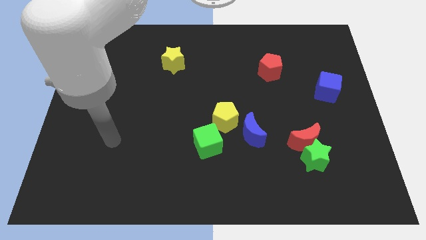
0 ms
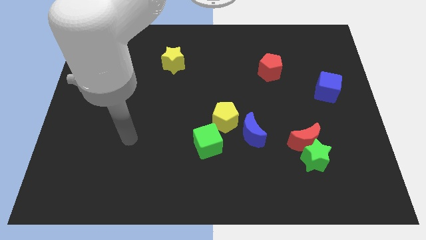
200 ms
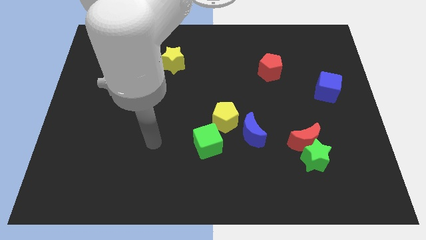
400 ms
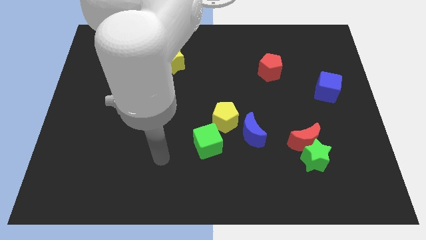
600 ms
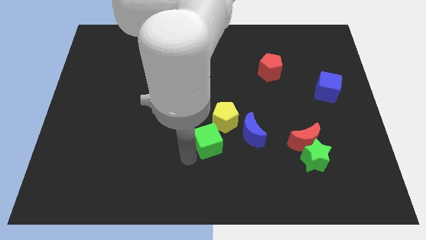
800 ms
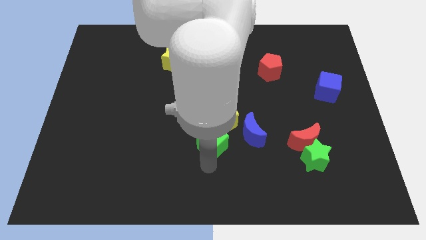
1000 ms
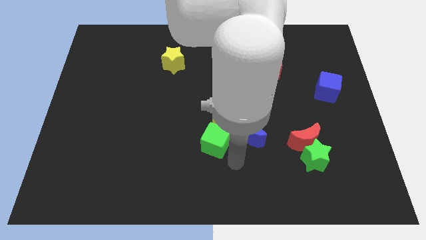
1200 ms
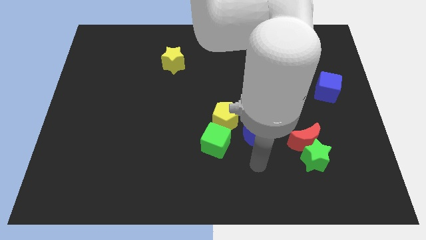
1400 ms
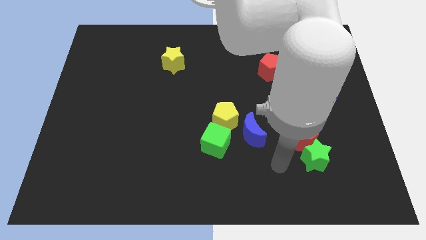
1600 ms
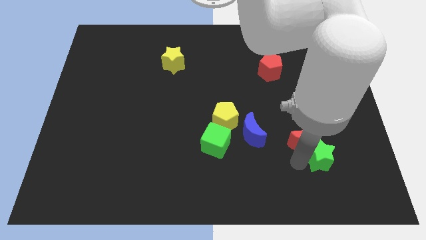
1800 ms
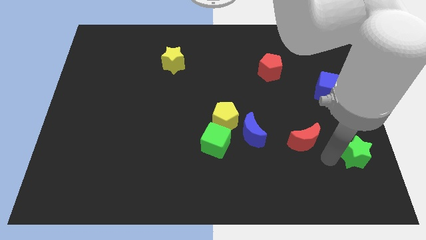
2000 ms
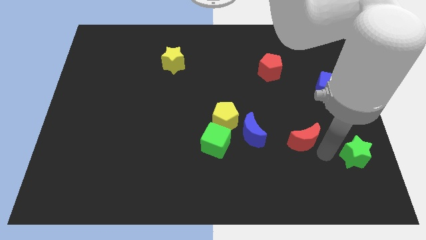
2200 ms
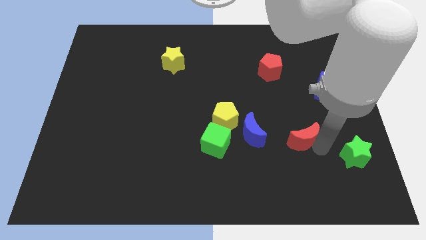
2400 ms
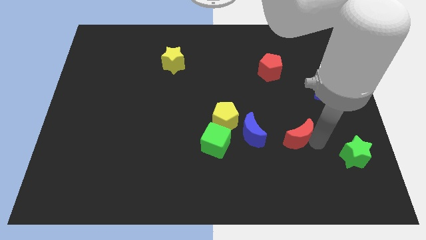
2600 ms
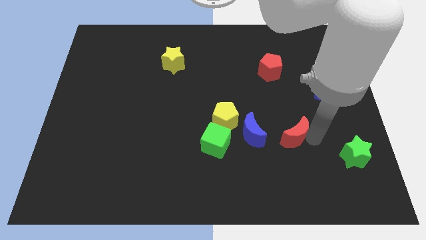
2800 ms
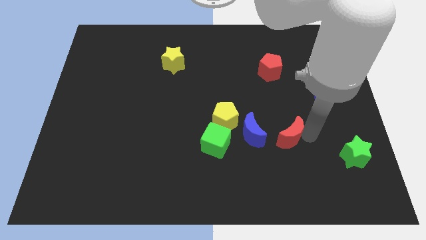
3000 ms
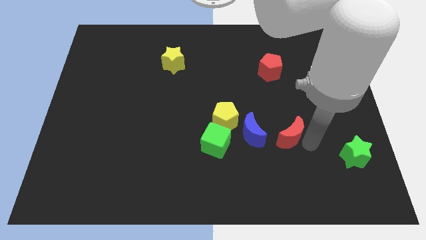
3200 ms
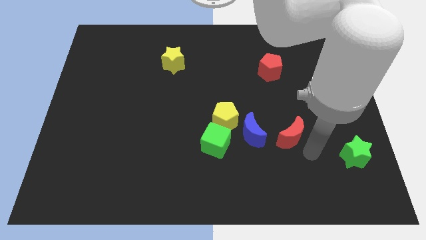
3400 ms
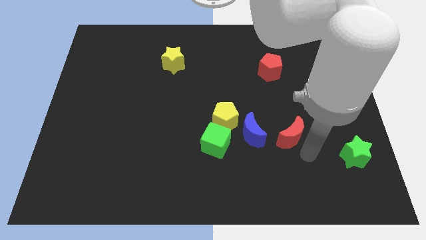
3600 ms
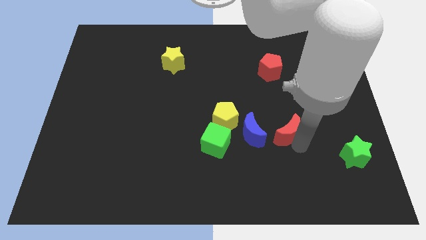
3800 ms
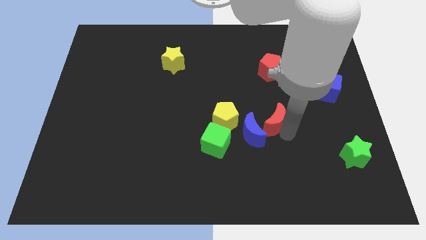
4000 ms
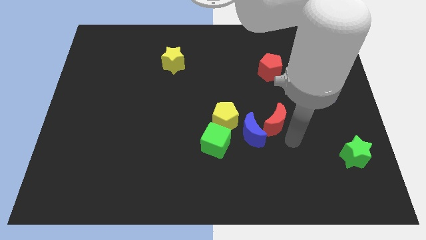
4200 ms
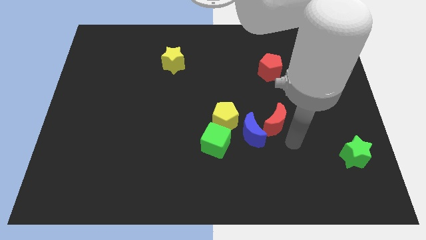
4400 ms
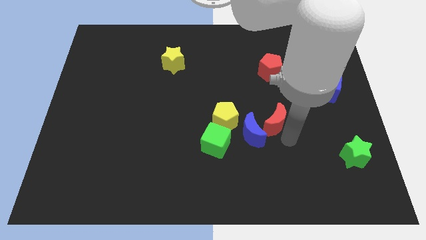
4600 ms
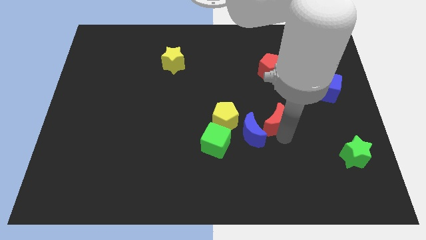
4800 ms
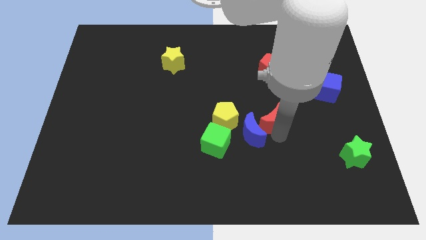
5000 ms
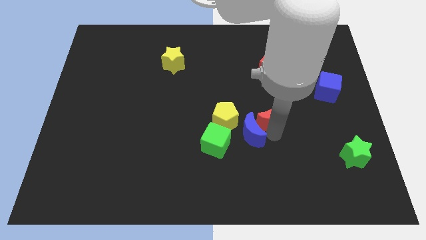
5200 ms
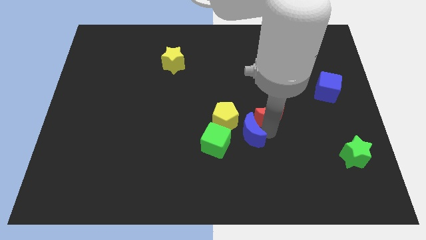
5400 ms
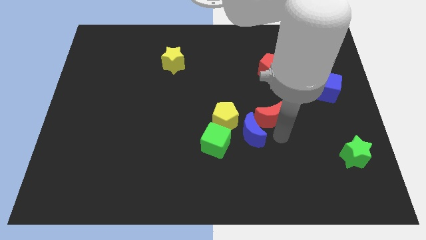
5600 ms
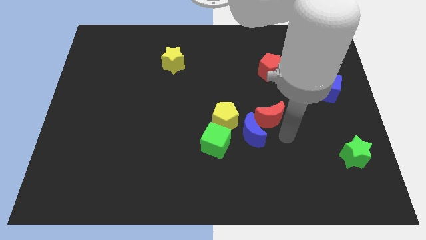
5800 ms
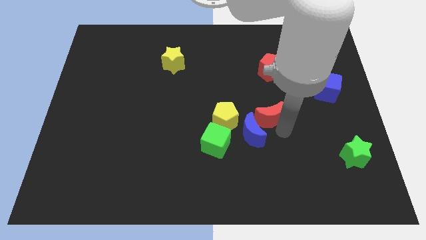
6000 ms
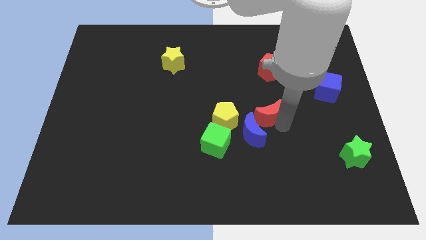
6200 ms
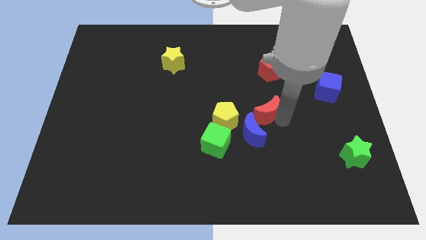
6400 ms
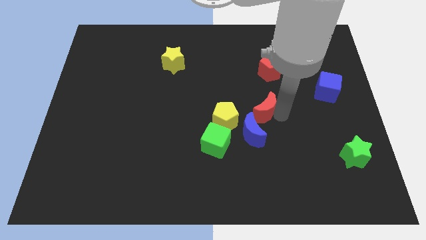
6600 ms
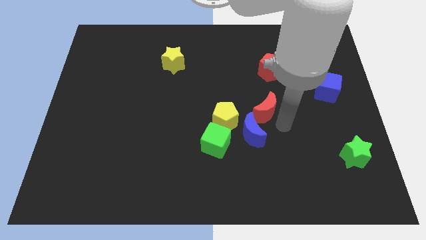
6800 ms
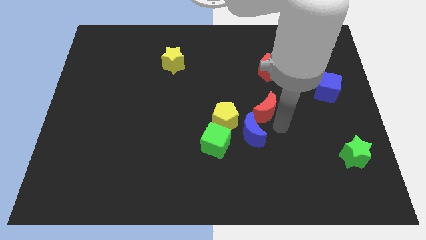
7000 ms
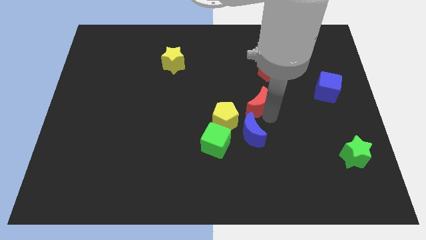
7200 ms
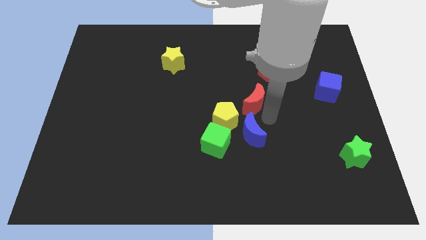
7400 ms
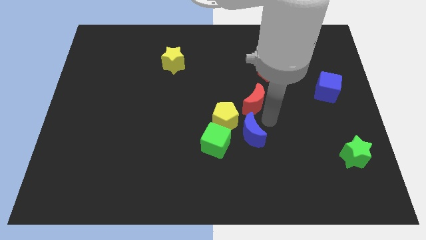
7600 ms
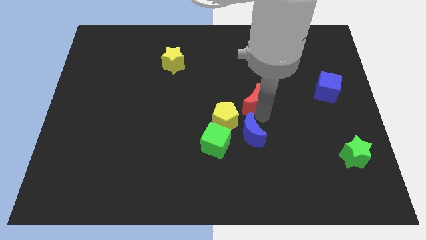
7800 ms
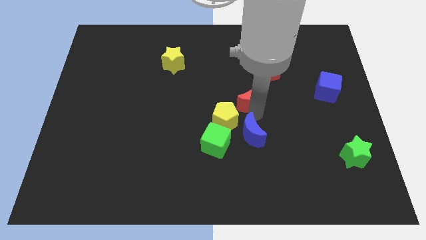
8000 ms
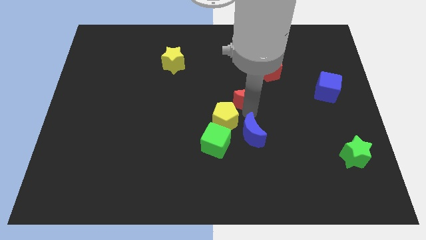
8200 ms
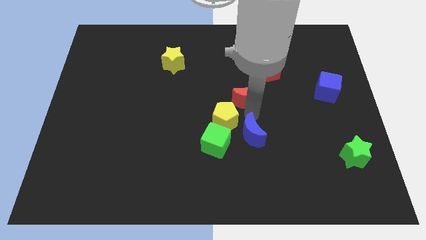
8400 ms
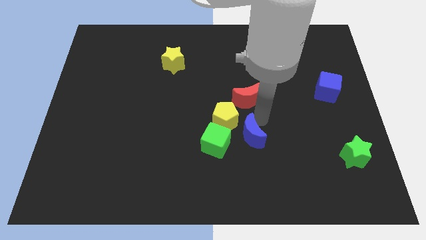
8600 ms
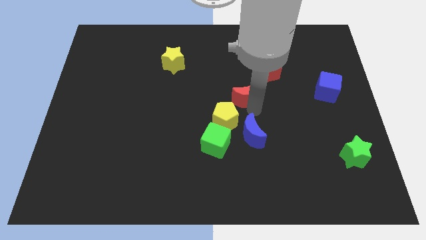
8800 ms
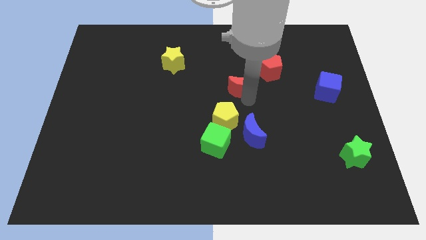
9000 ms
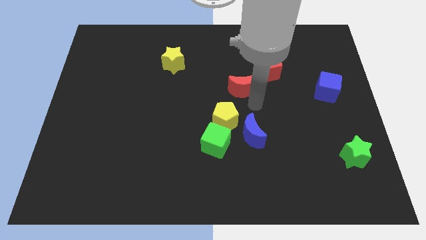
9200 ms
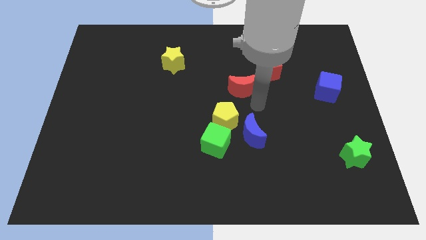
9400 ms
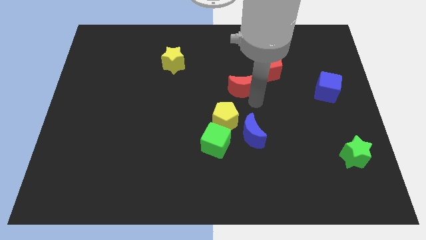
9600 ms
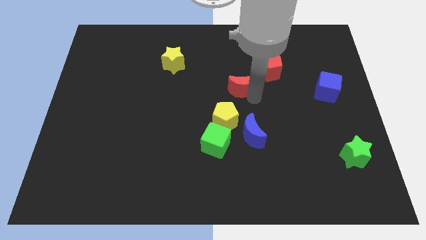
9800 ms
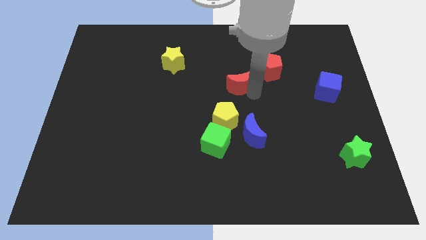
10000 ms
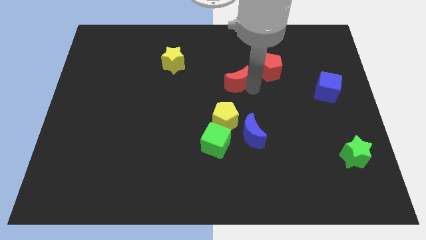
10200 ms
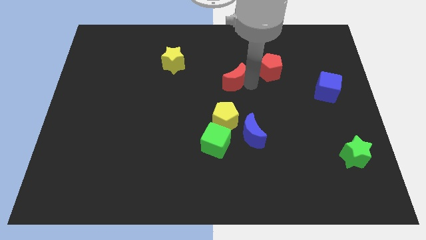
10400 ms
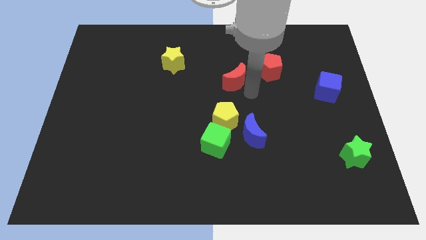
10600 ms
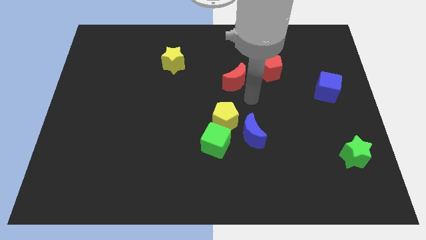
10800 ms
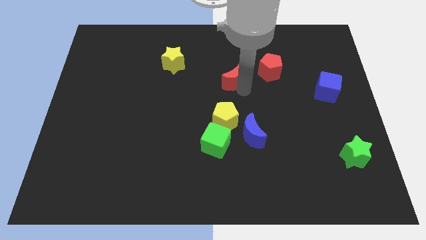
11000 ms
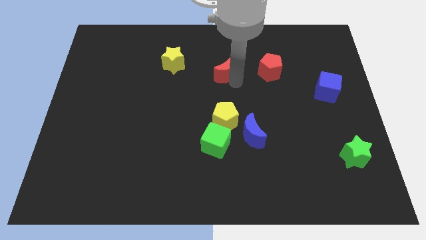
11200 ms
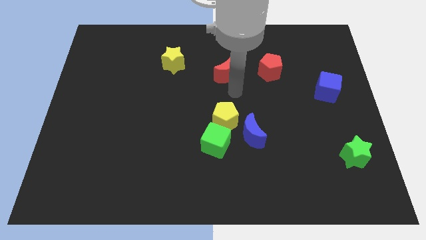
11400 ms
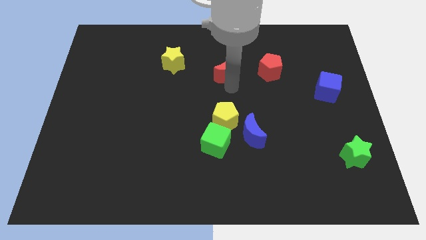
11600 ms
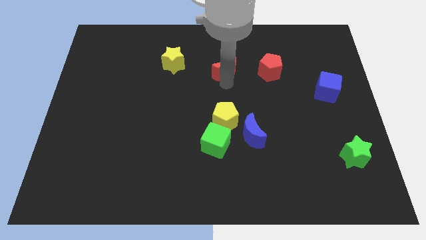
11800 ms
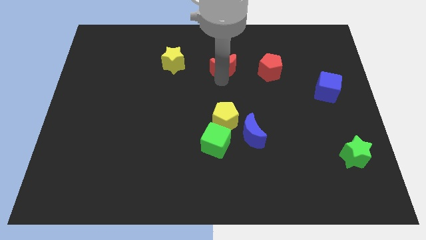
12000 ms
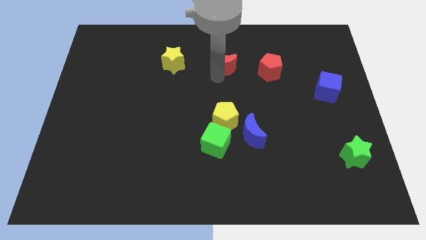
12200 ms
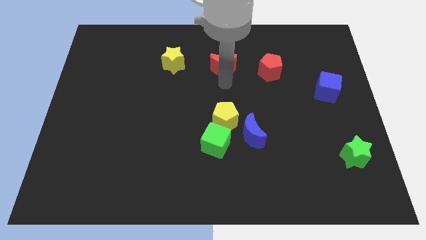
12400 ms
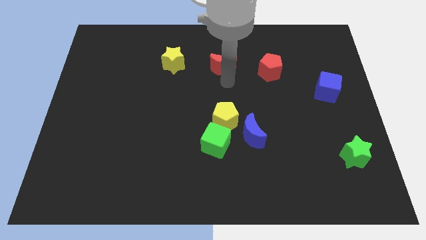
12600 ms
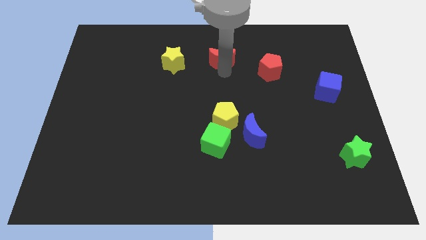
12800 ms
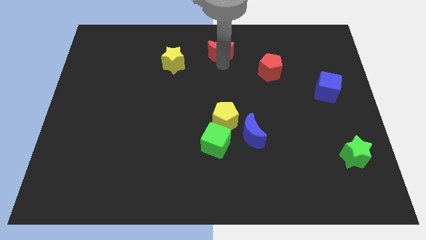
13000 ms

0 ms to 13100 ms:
slide the red moon to the top
